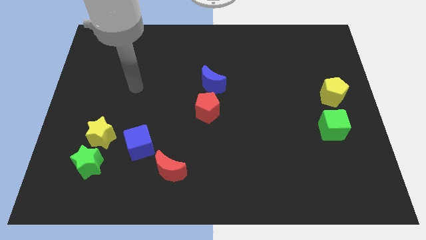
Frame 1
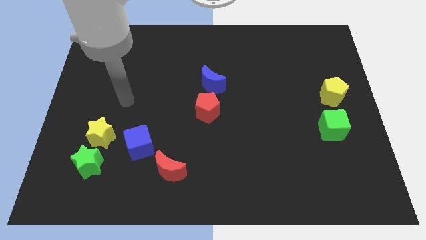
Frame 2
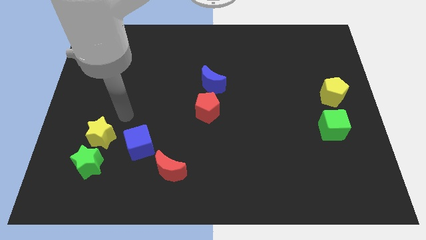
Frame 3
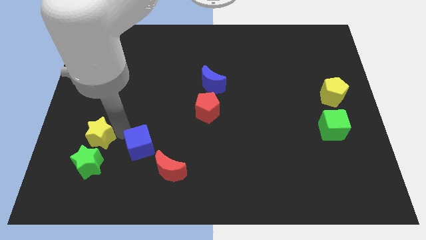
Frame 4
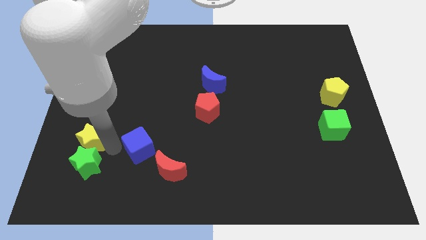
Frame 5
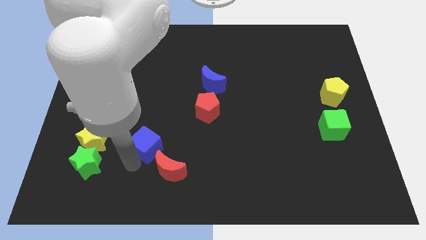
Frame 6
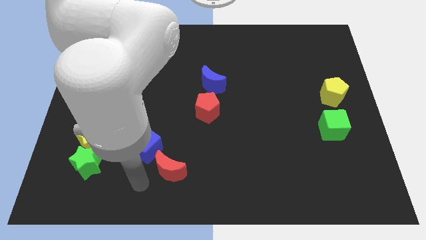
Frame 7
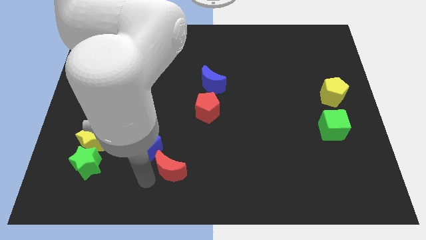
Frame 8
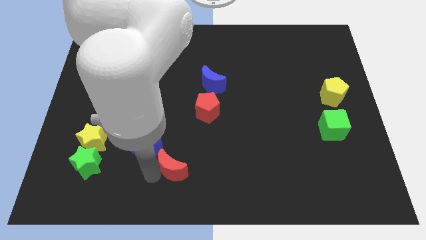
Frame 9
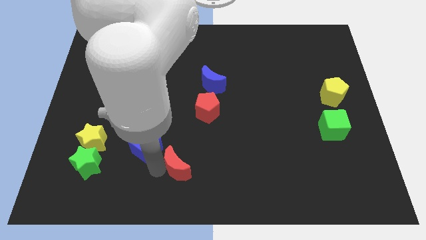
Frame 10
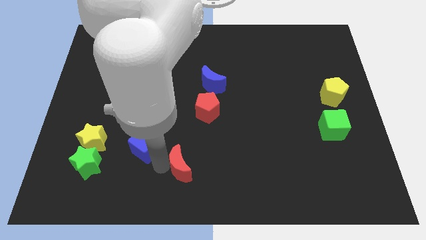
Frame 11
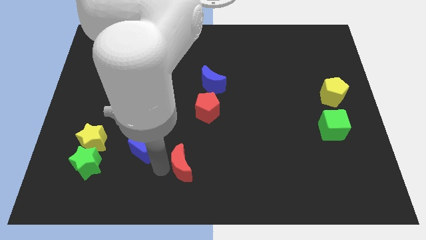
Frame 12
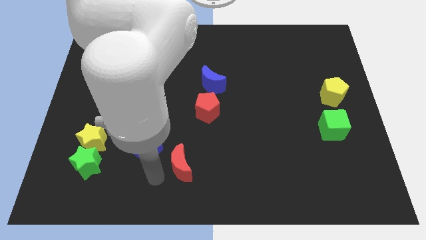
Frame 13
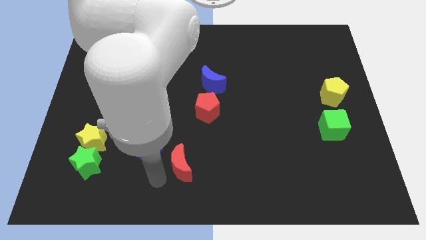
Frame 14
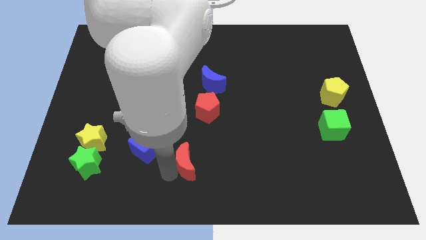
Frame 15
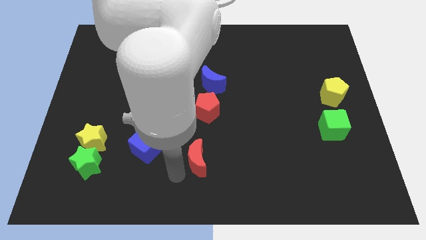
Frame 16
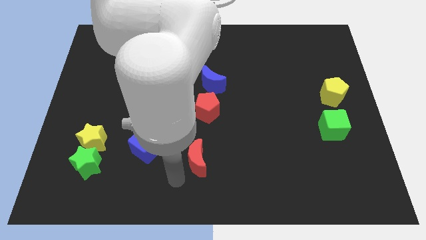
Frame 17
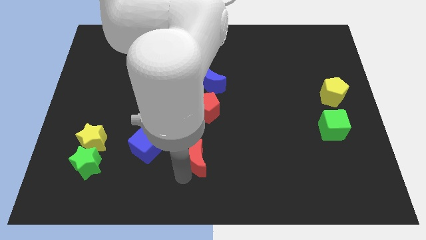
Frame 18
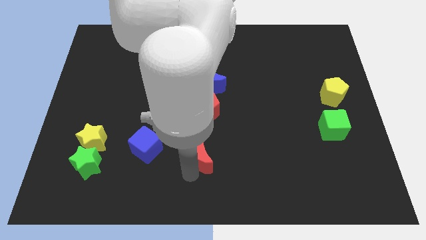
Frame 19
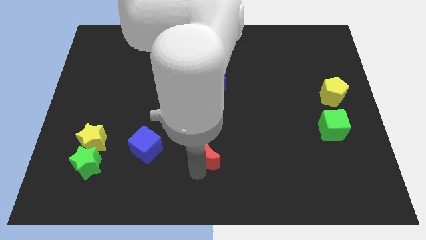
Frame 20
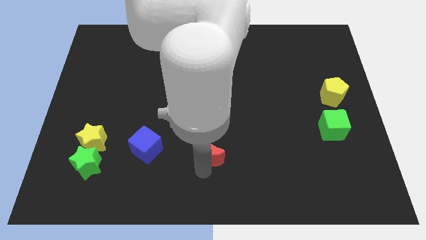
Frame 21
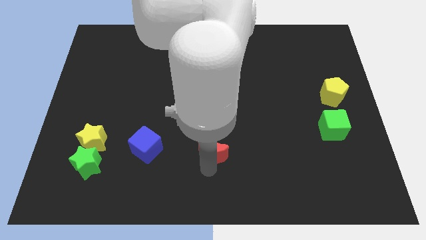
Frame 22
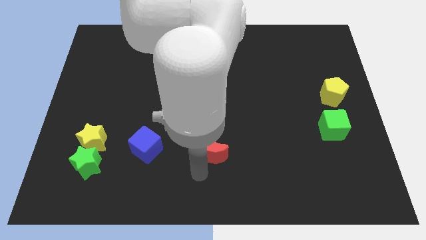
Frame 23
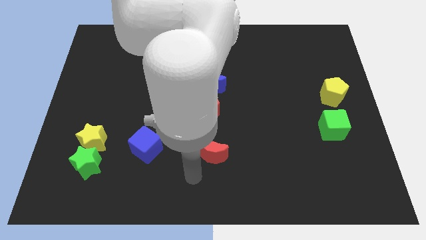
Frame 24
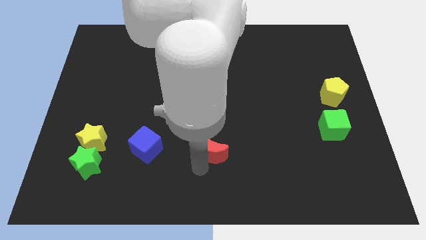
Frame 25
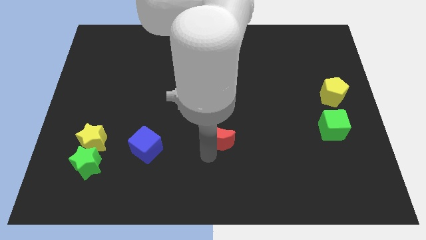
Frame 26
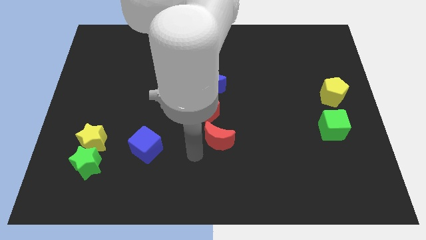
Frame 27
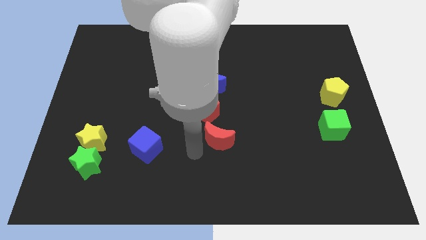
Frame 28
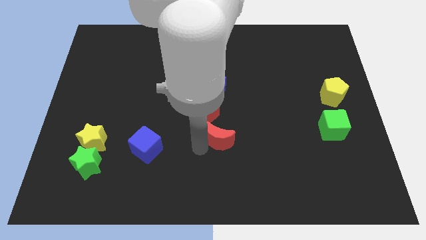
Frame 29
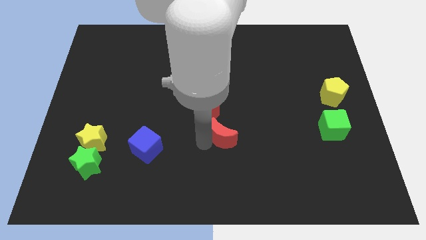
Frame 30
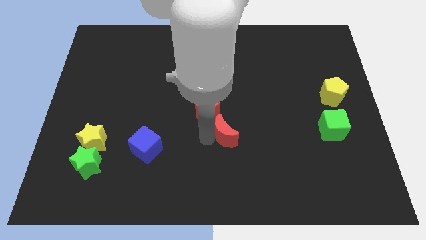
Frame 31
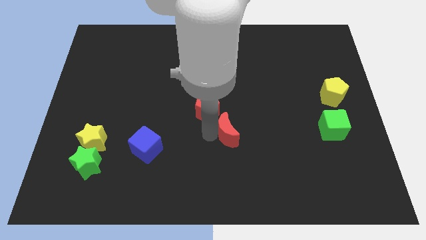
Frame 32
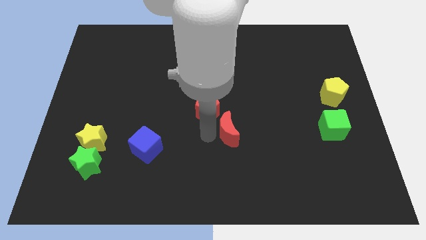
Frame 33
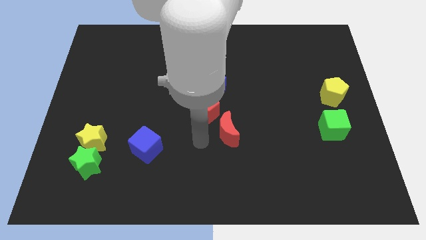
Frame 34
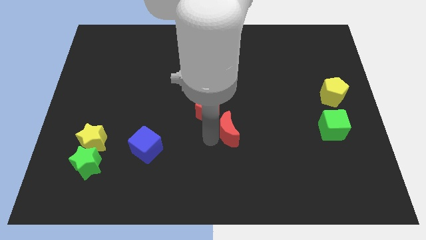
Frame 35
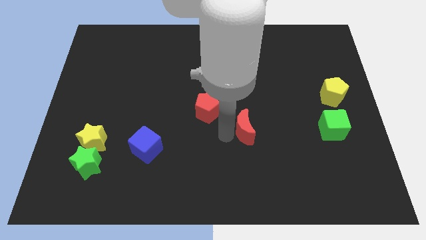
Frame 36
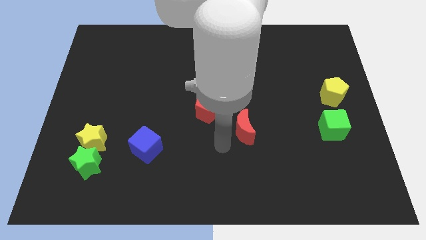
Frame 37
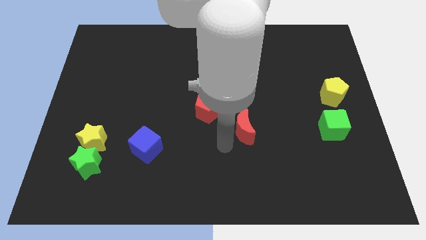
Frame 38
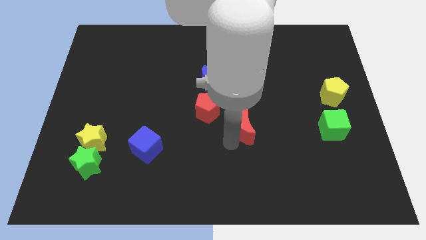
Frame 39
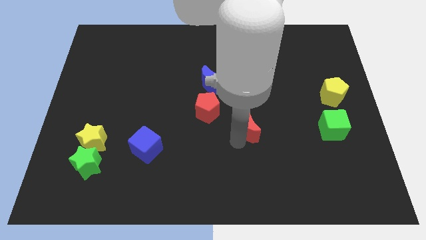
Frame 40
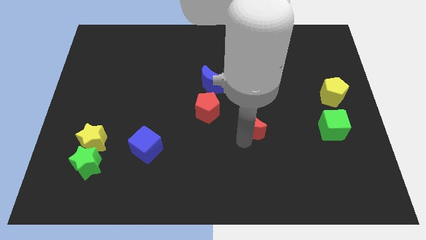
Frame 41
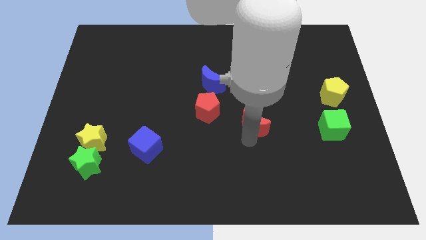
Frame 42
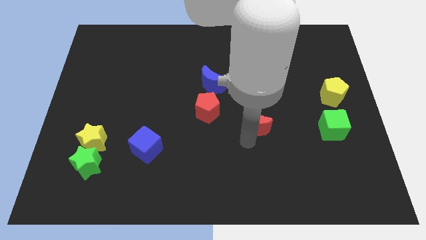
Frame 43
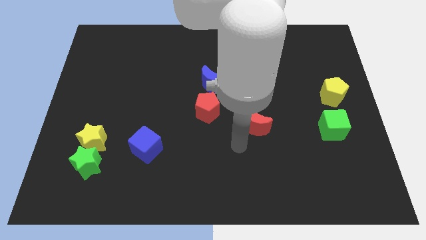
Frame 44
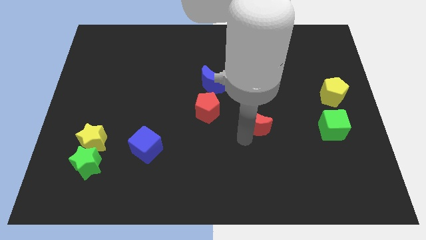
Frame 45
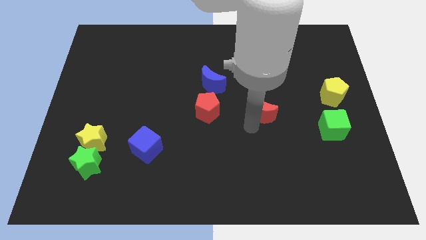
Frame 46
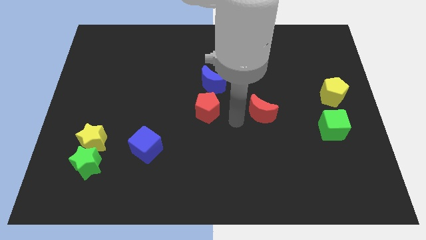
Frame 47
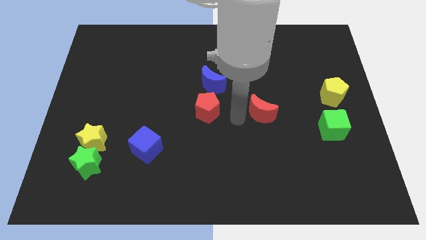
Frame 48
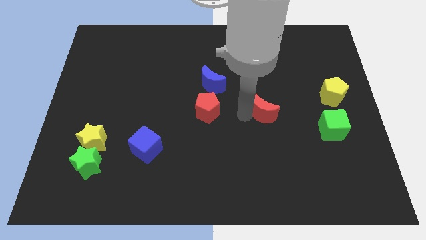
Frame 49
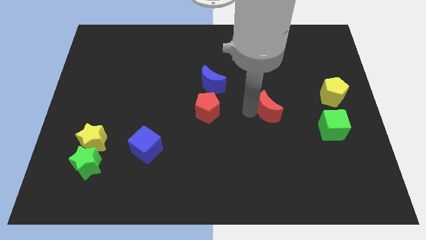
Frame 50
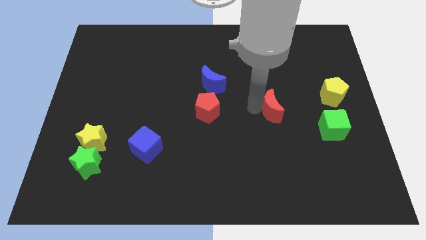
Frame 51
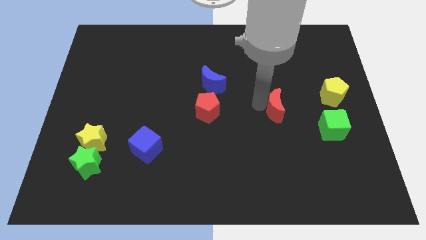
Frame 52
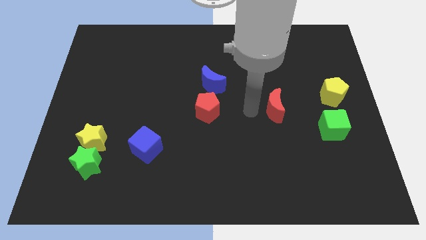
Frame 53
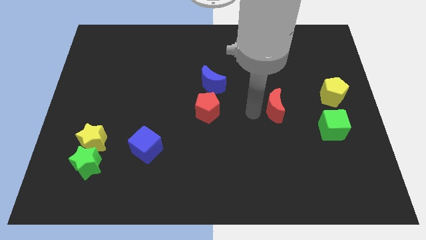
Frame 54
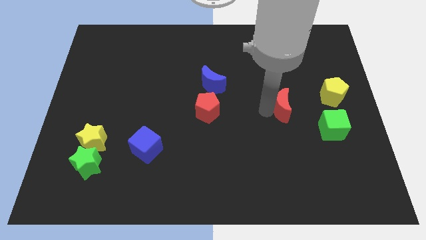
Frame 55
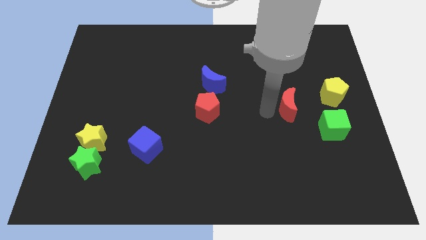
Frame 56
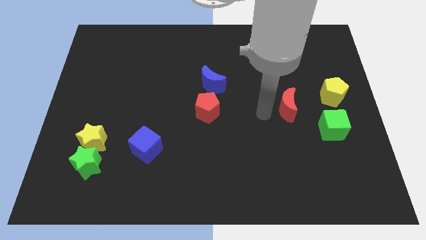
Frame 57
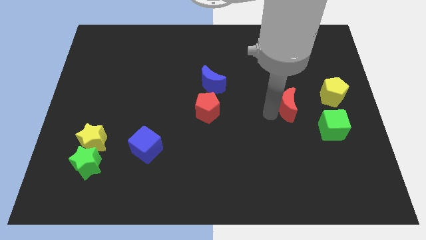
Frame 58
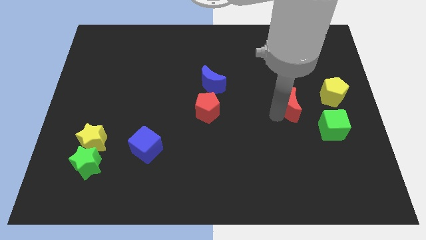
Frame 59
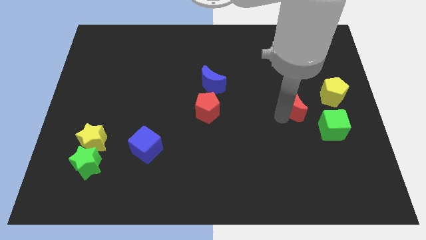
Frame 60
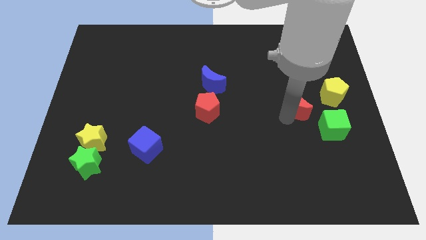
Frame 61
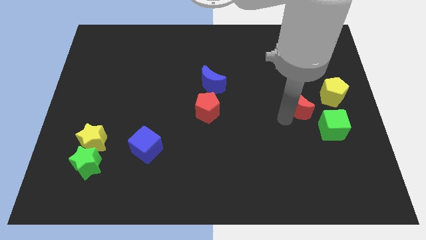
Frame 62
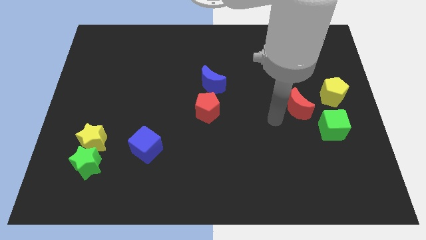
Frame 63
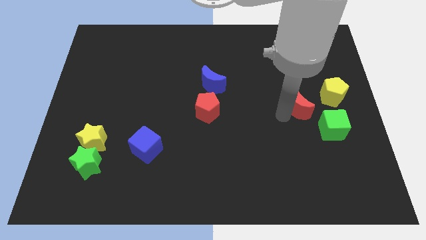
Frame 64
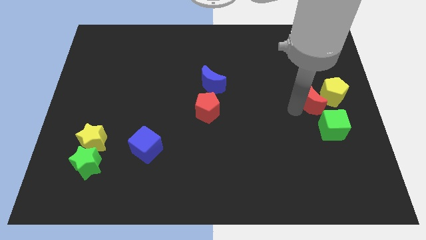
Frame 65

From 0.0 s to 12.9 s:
move the red moon close to the yellow pentagon

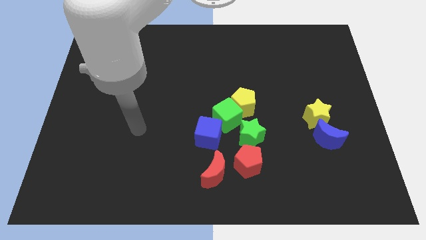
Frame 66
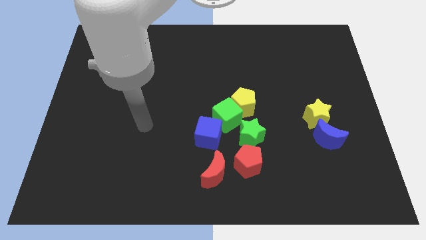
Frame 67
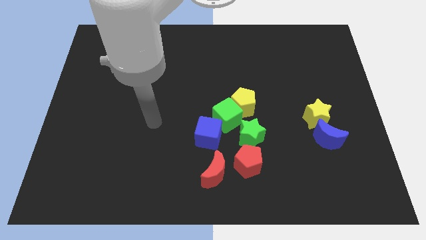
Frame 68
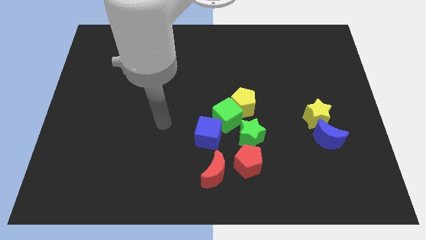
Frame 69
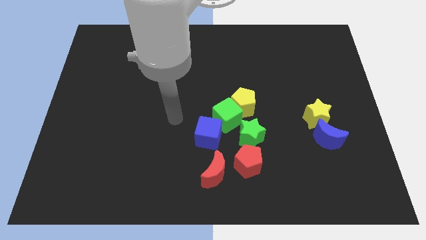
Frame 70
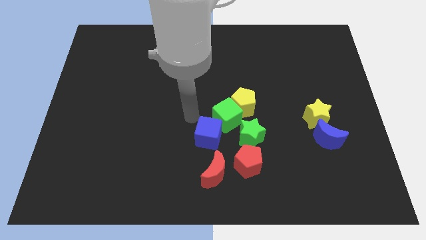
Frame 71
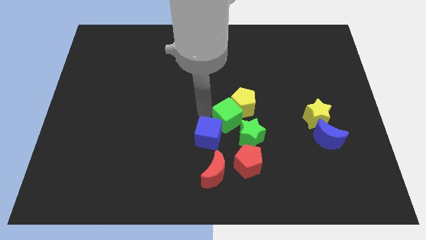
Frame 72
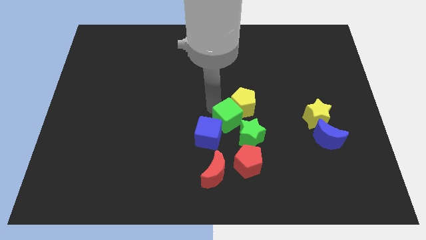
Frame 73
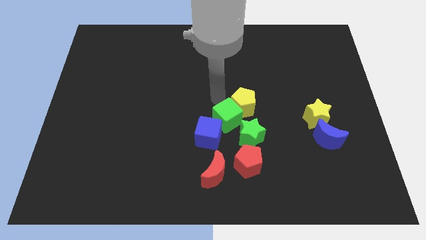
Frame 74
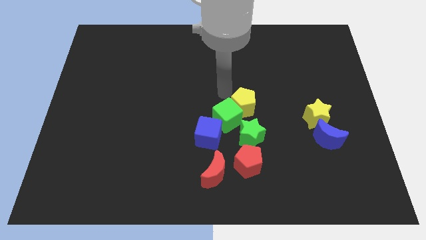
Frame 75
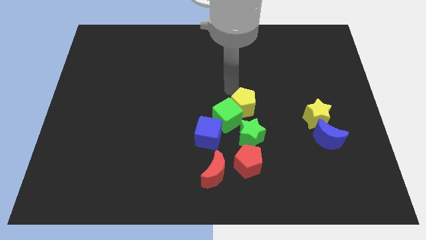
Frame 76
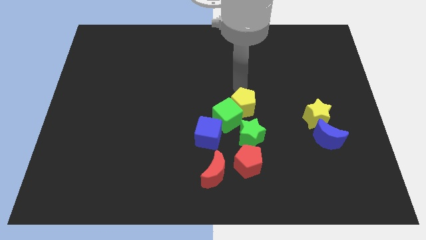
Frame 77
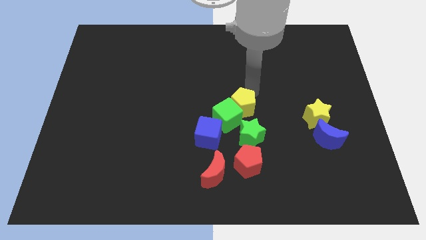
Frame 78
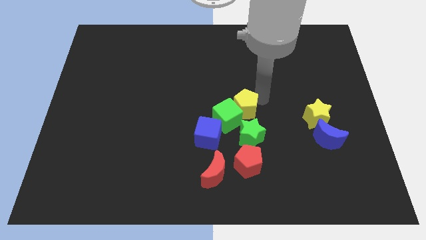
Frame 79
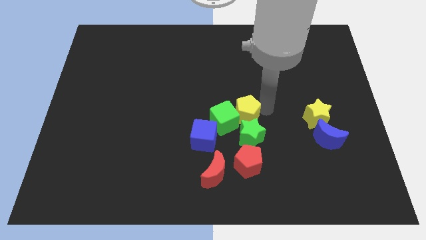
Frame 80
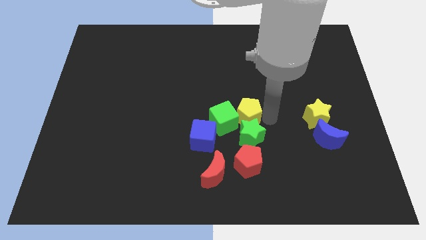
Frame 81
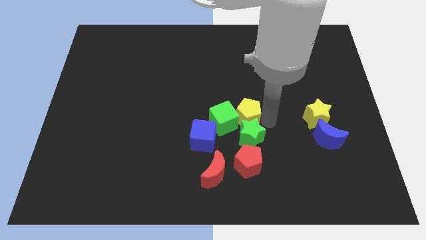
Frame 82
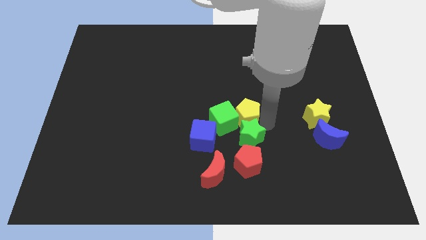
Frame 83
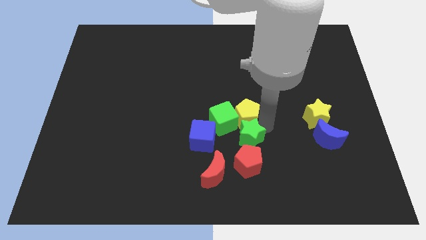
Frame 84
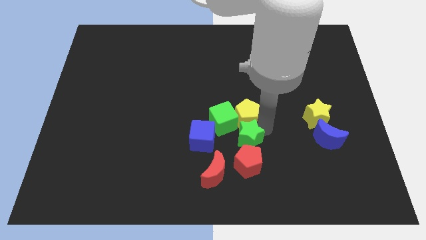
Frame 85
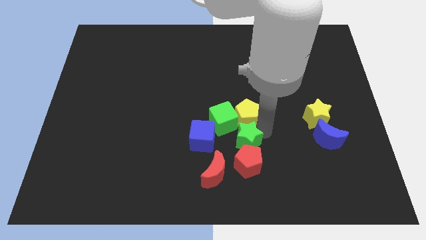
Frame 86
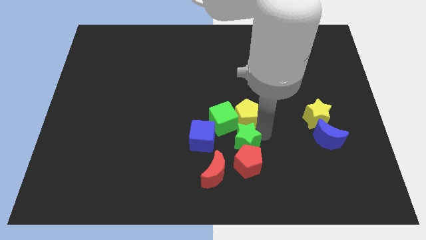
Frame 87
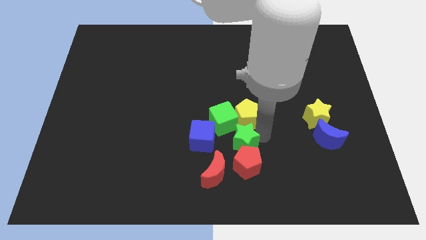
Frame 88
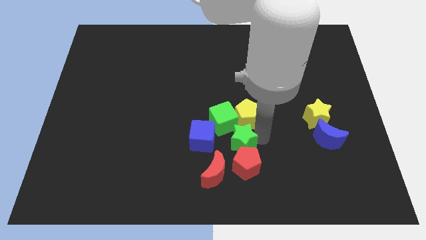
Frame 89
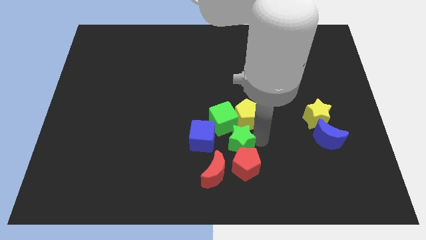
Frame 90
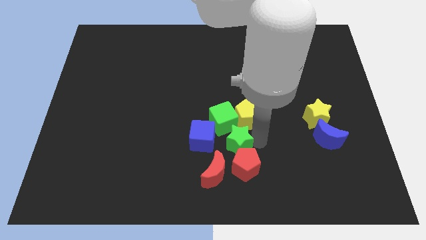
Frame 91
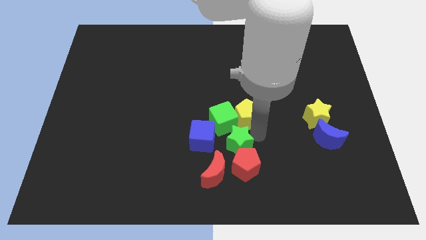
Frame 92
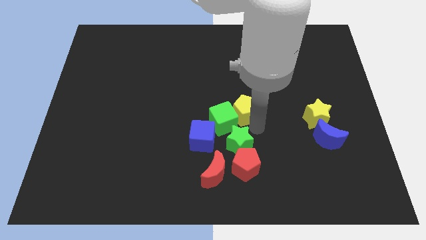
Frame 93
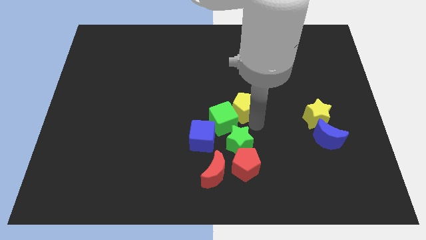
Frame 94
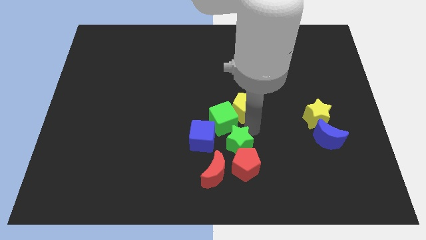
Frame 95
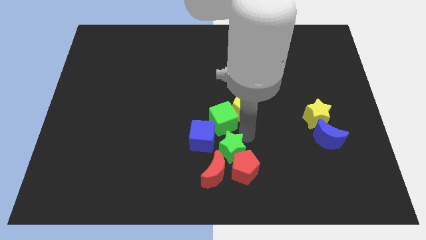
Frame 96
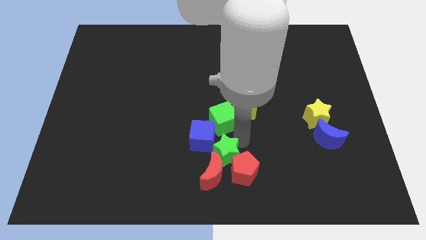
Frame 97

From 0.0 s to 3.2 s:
move the green star to the red moon
